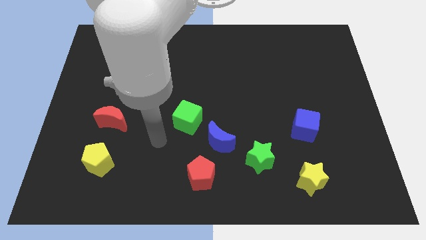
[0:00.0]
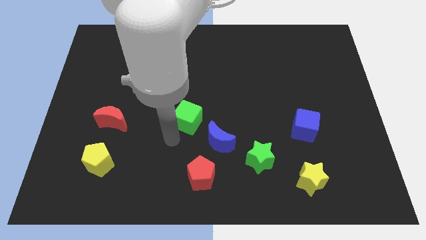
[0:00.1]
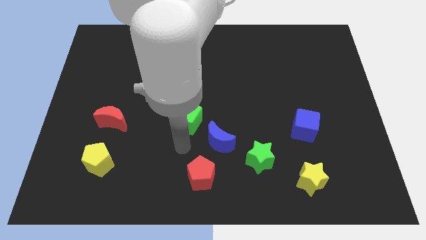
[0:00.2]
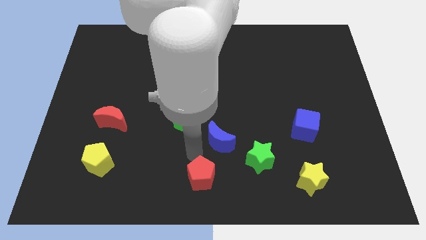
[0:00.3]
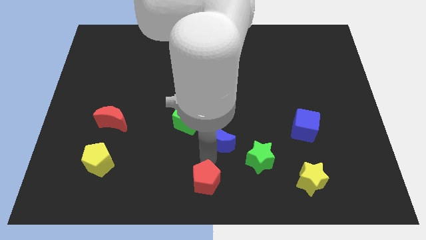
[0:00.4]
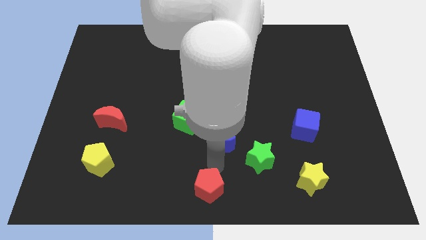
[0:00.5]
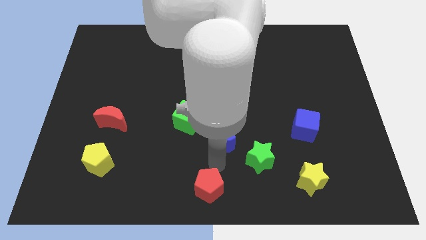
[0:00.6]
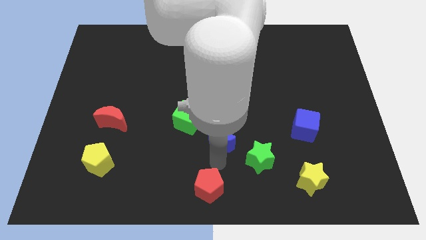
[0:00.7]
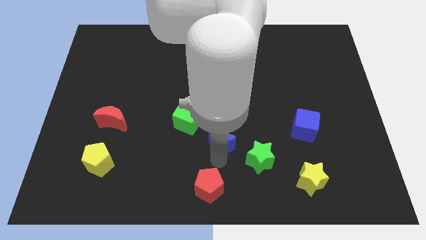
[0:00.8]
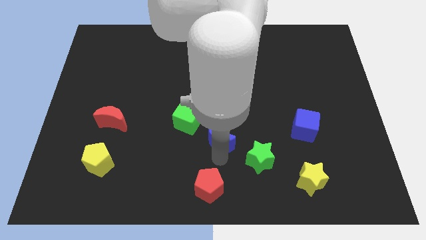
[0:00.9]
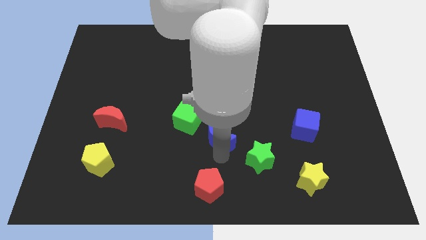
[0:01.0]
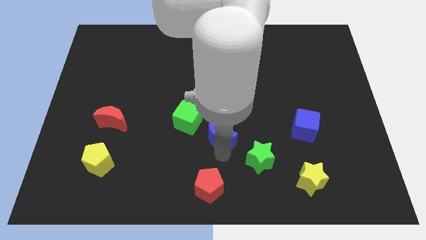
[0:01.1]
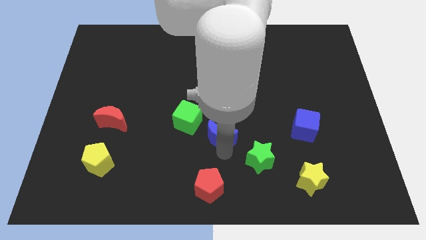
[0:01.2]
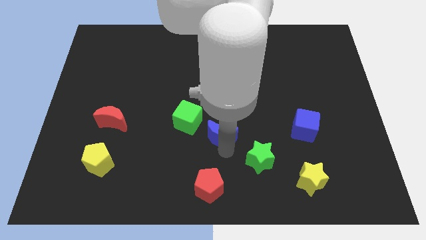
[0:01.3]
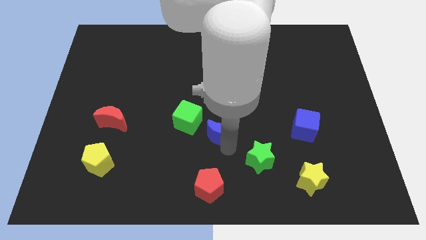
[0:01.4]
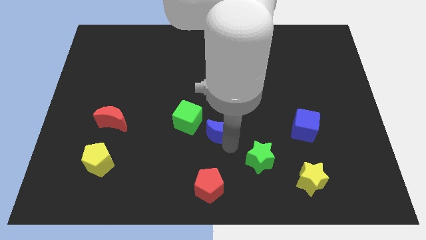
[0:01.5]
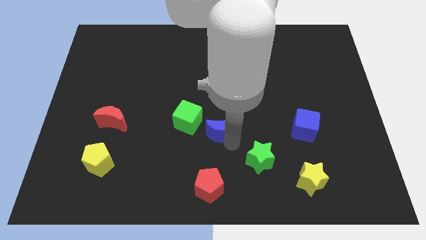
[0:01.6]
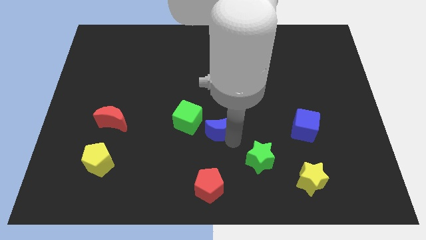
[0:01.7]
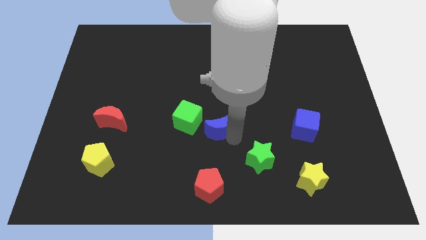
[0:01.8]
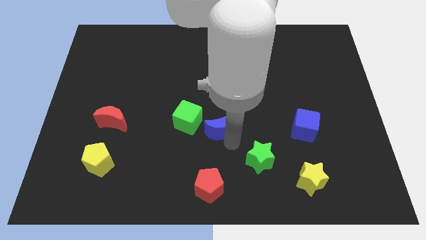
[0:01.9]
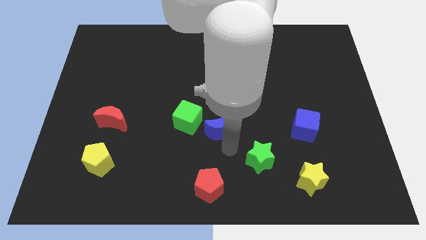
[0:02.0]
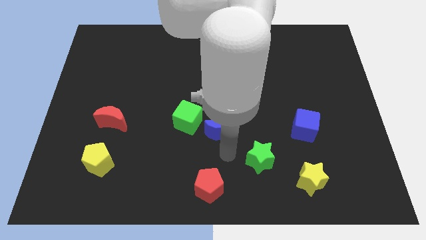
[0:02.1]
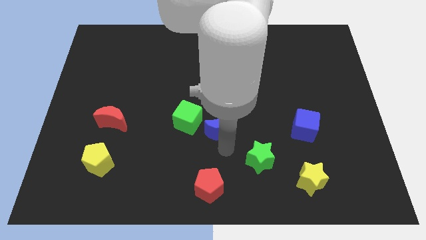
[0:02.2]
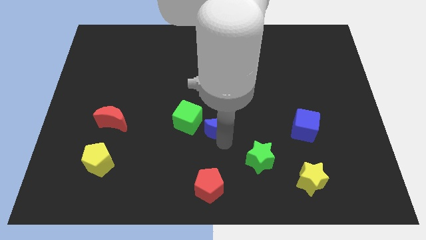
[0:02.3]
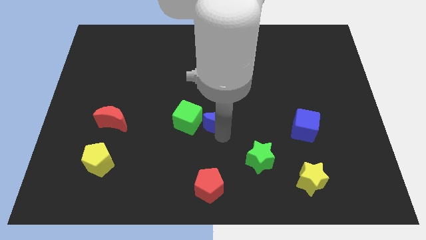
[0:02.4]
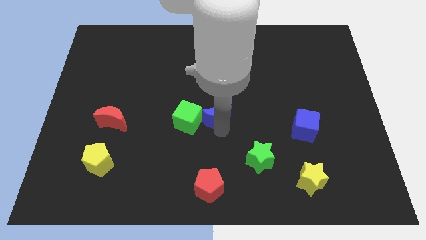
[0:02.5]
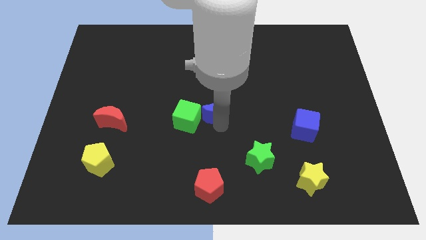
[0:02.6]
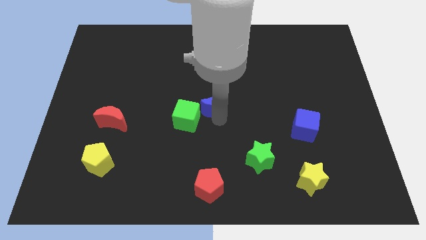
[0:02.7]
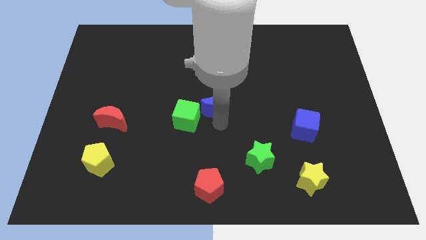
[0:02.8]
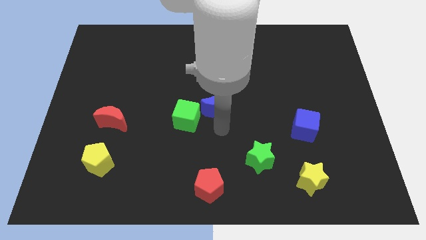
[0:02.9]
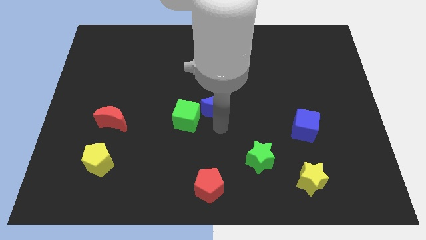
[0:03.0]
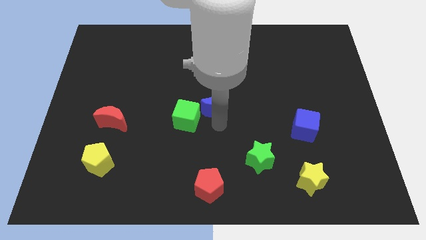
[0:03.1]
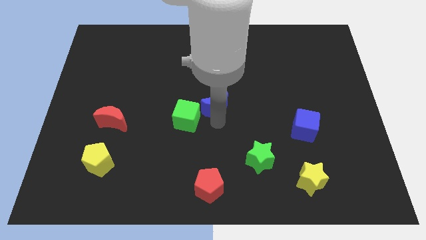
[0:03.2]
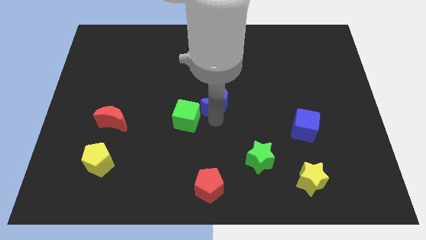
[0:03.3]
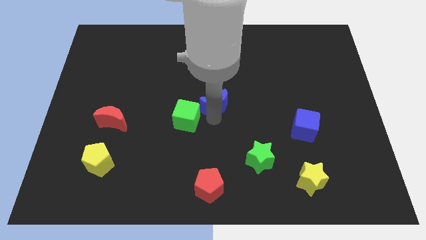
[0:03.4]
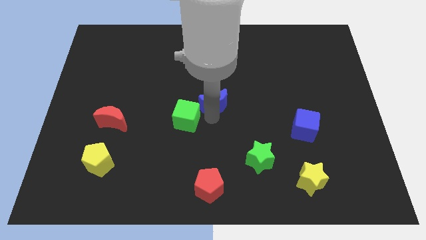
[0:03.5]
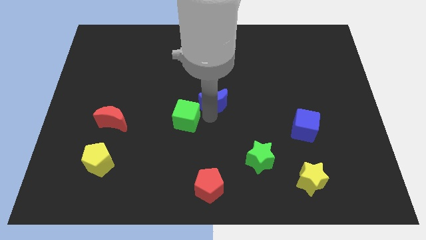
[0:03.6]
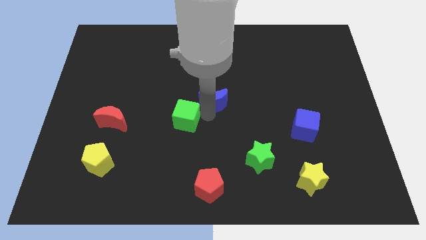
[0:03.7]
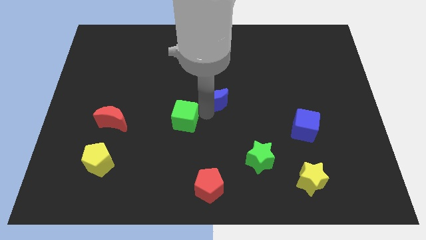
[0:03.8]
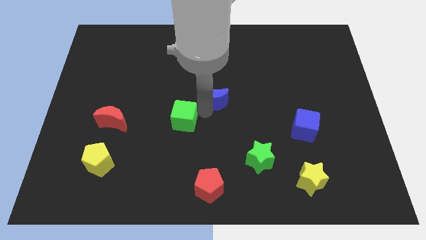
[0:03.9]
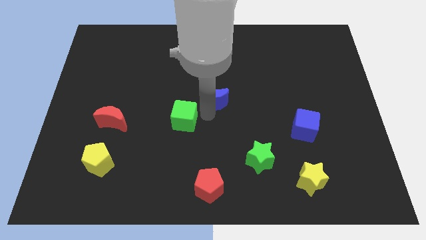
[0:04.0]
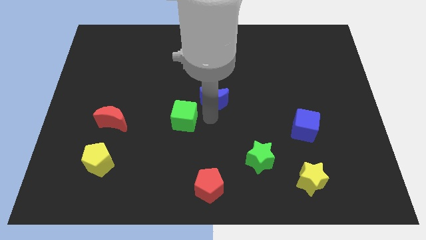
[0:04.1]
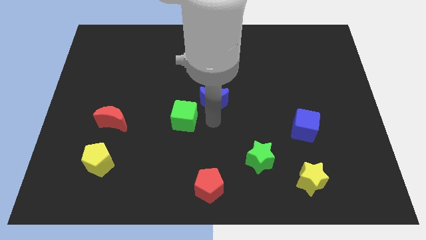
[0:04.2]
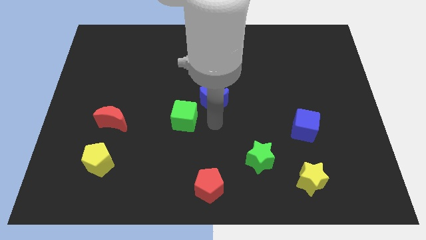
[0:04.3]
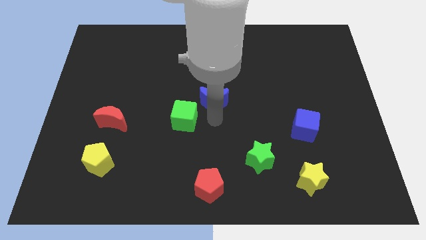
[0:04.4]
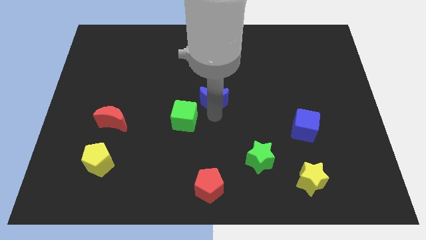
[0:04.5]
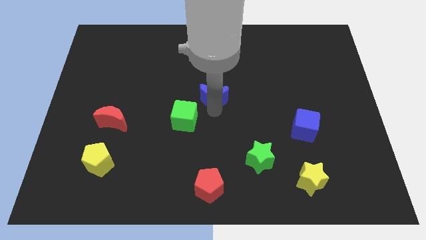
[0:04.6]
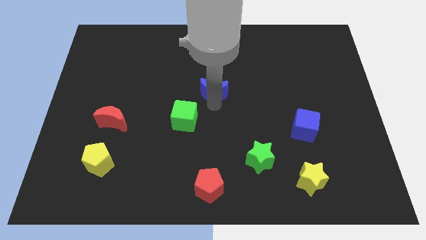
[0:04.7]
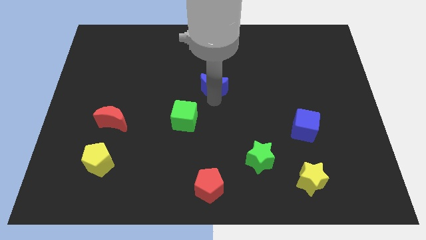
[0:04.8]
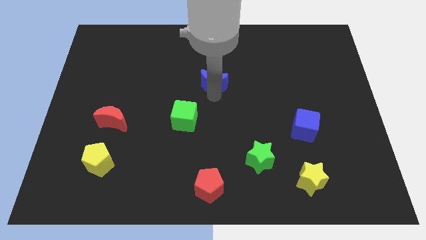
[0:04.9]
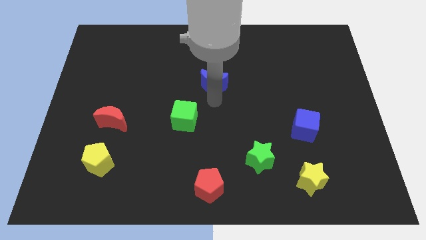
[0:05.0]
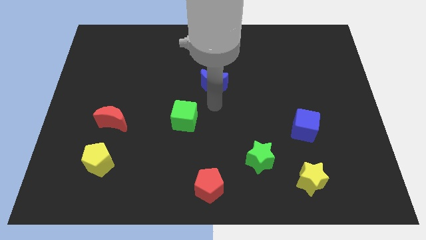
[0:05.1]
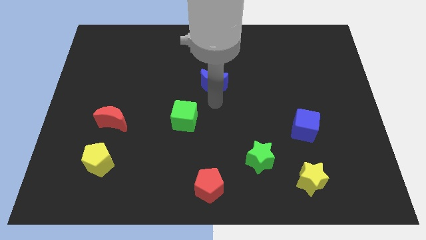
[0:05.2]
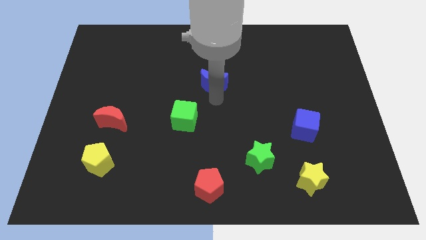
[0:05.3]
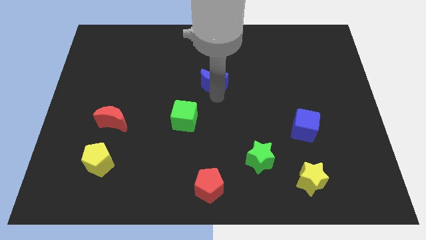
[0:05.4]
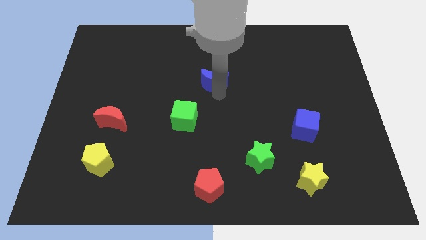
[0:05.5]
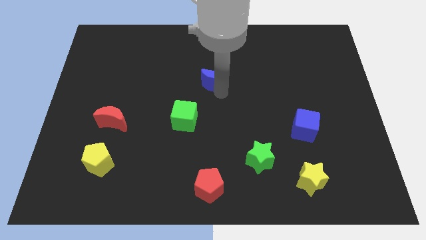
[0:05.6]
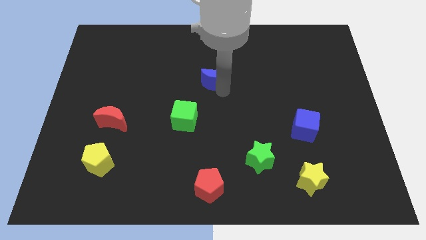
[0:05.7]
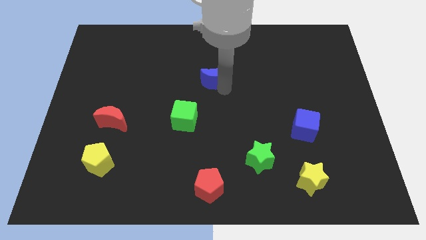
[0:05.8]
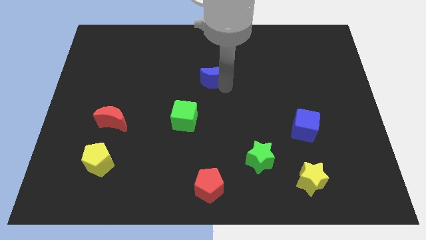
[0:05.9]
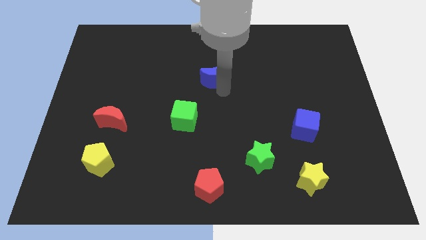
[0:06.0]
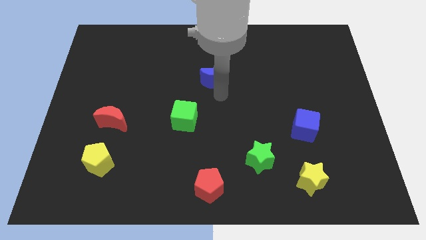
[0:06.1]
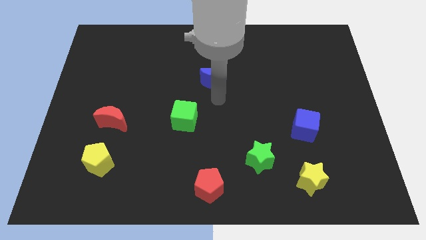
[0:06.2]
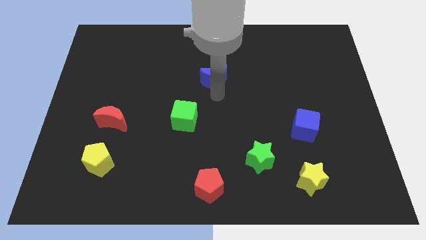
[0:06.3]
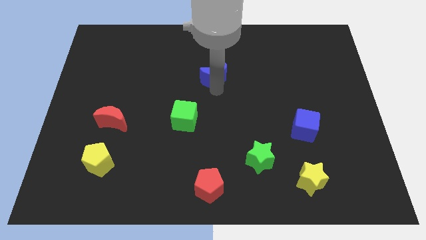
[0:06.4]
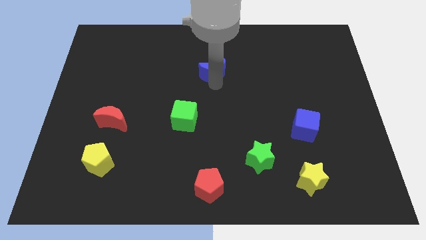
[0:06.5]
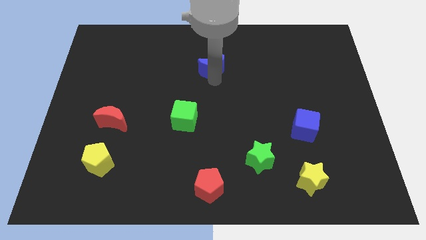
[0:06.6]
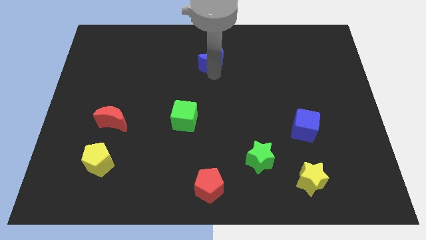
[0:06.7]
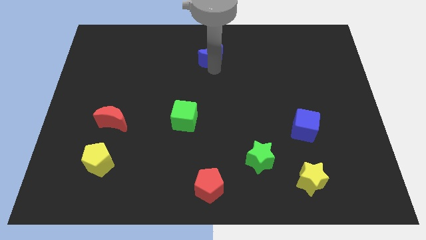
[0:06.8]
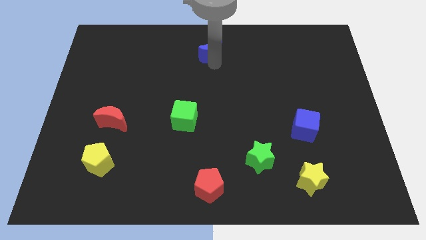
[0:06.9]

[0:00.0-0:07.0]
put the blue moon to the top side
